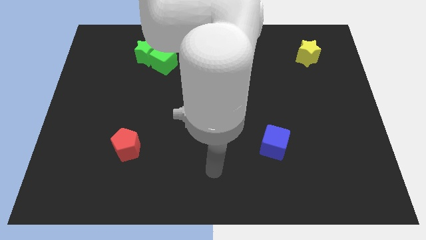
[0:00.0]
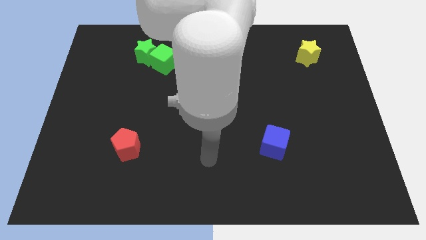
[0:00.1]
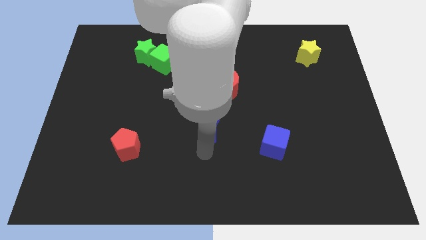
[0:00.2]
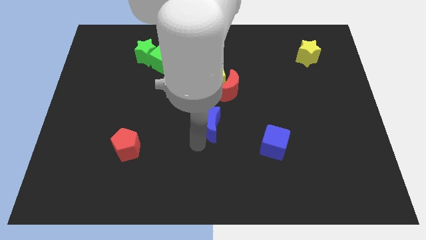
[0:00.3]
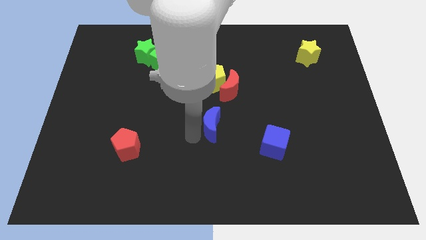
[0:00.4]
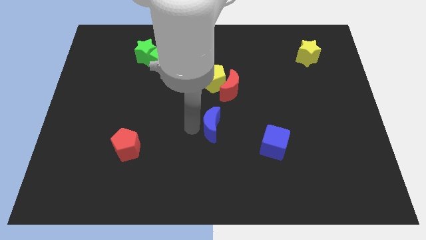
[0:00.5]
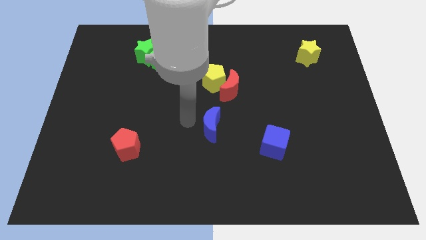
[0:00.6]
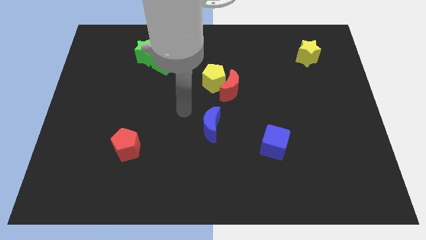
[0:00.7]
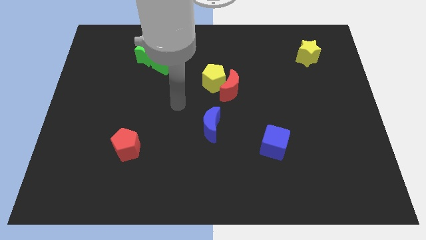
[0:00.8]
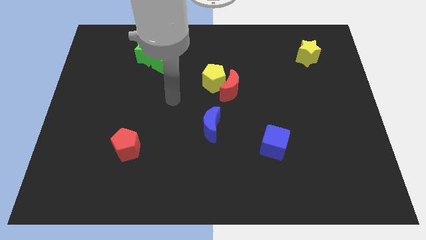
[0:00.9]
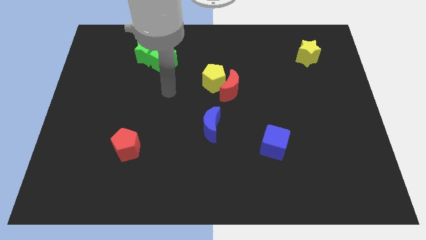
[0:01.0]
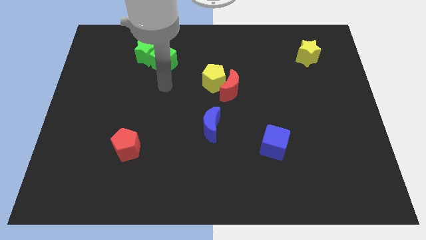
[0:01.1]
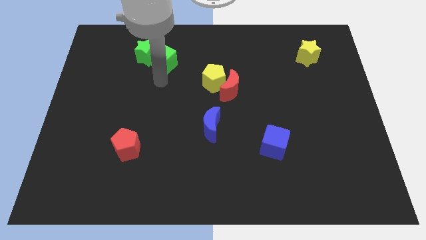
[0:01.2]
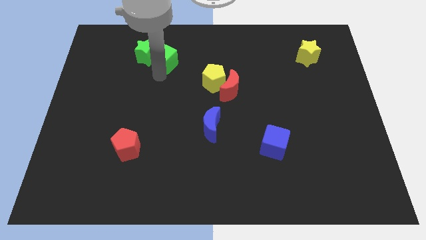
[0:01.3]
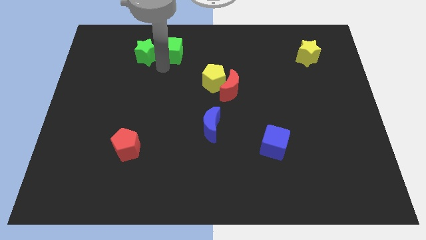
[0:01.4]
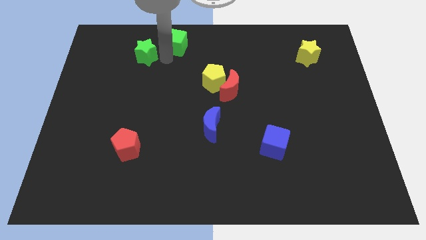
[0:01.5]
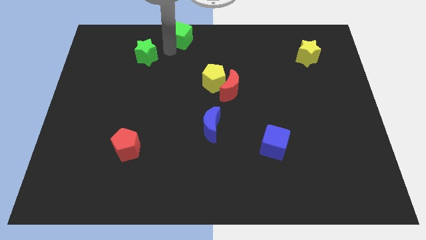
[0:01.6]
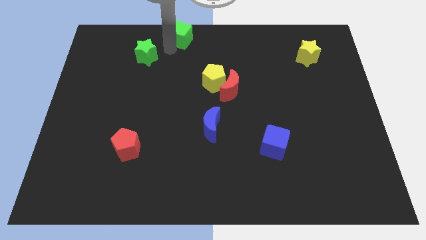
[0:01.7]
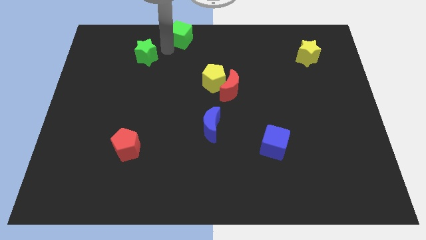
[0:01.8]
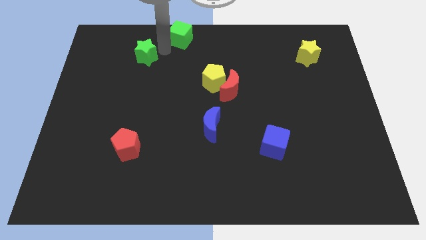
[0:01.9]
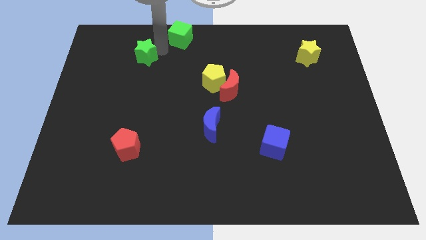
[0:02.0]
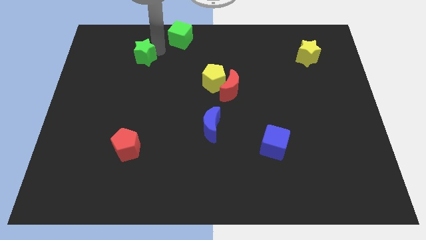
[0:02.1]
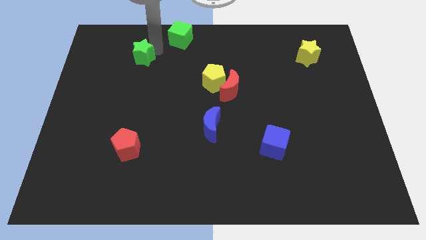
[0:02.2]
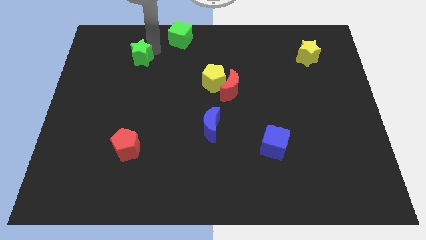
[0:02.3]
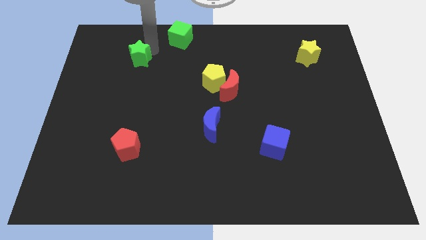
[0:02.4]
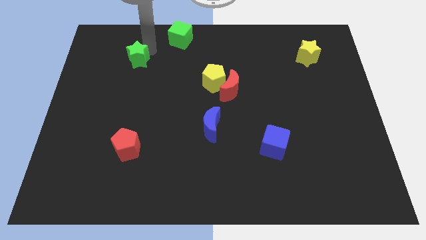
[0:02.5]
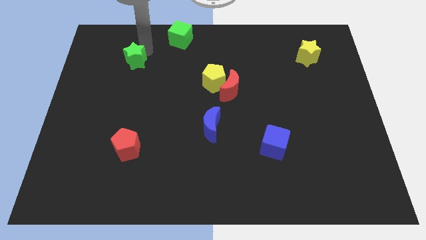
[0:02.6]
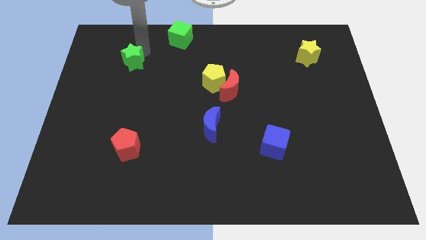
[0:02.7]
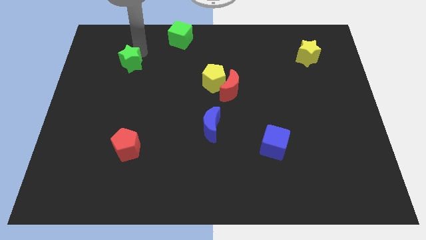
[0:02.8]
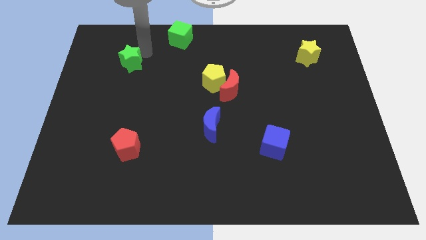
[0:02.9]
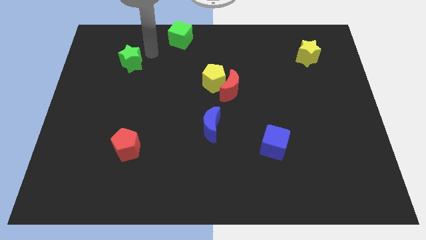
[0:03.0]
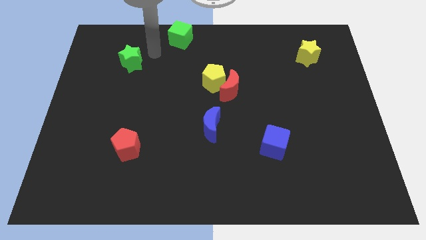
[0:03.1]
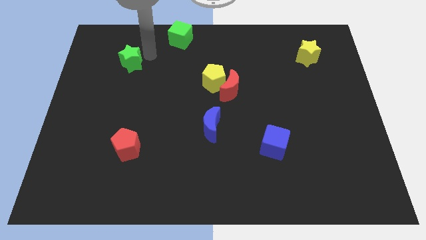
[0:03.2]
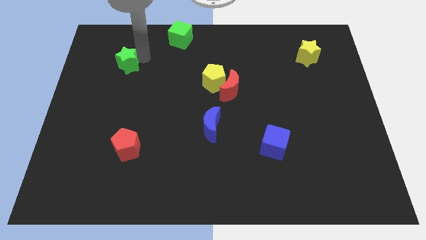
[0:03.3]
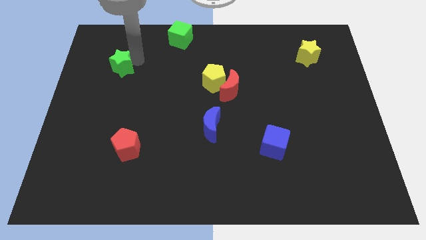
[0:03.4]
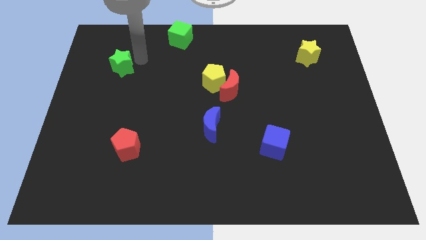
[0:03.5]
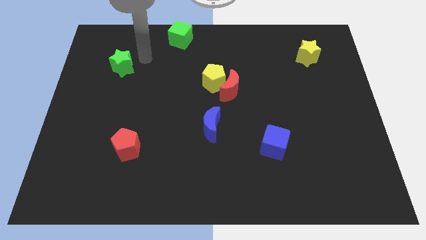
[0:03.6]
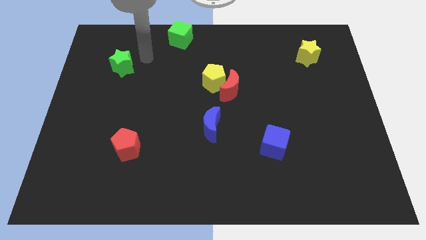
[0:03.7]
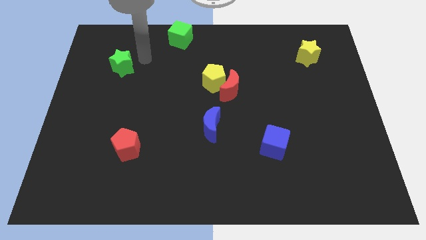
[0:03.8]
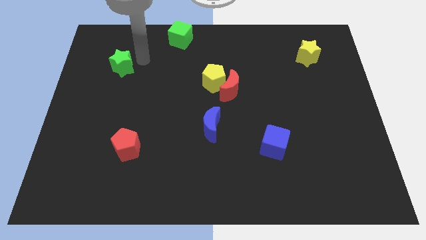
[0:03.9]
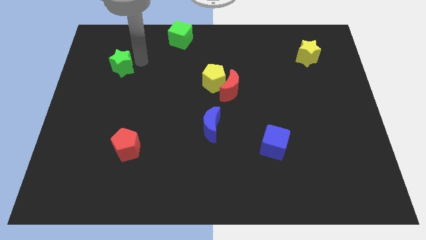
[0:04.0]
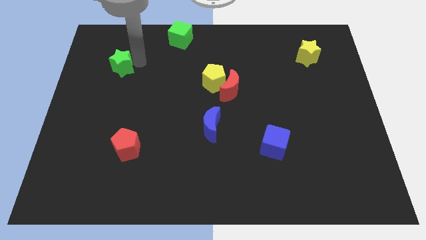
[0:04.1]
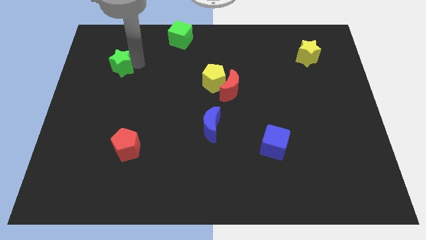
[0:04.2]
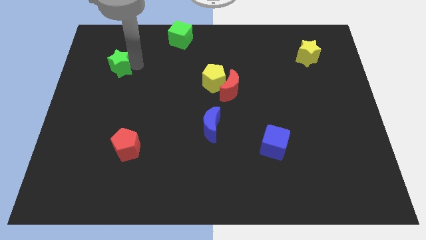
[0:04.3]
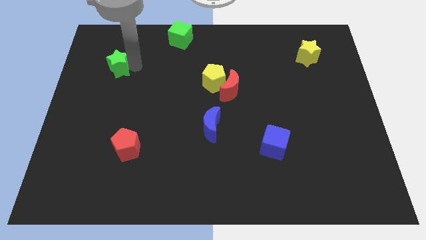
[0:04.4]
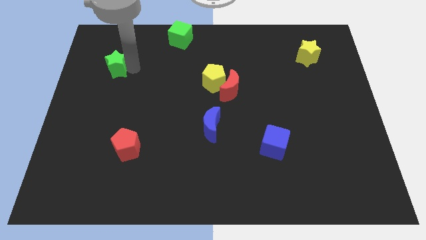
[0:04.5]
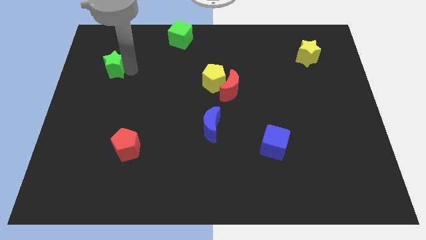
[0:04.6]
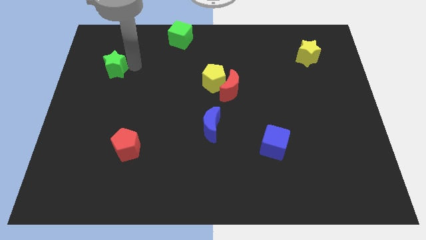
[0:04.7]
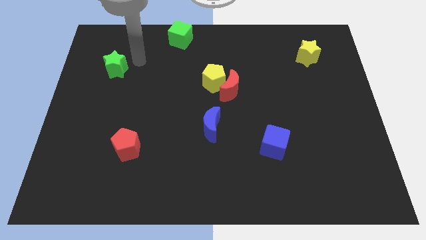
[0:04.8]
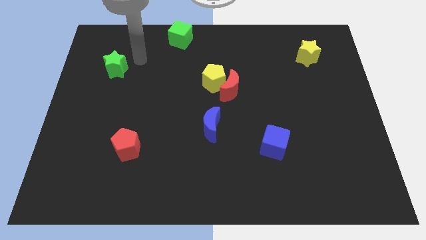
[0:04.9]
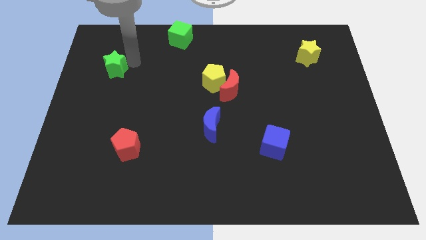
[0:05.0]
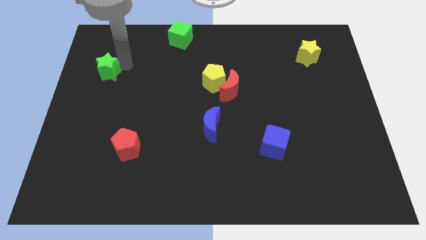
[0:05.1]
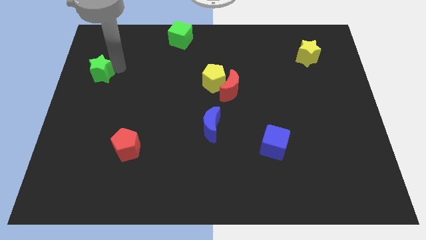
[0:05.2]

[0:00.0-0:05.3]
slide the green star to the left side of the board

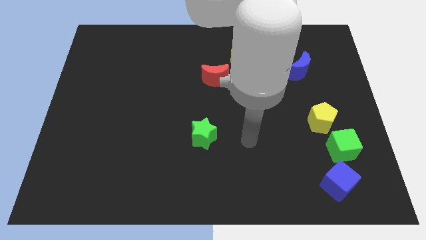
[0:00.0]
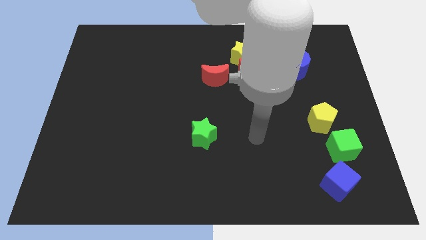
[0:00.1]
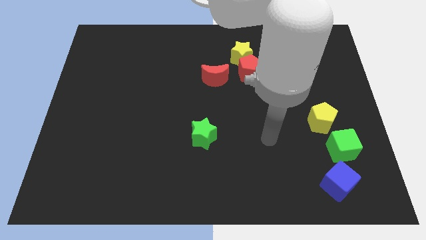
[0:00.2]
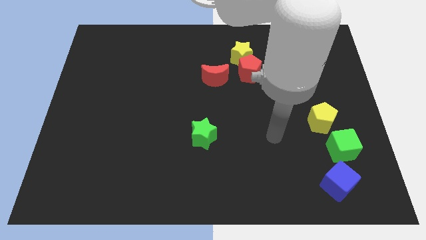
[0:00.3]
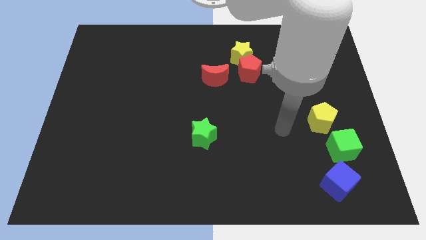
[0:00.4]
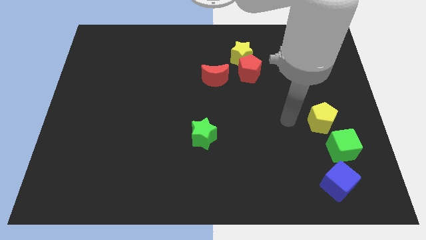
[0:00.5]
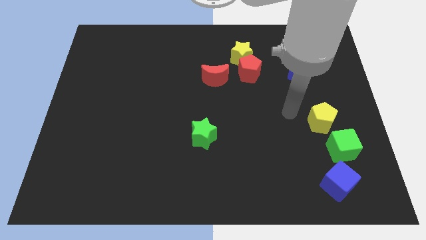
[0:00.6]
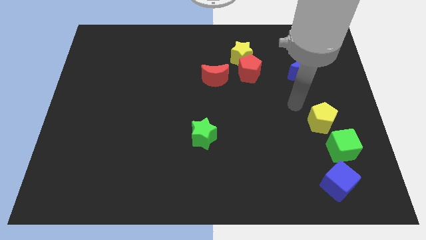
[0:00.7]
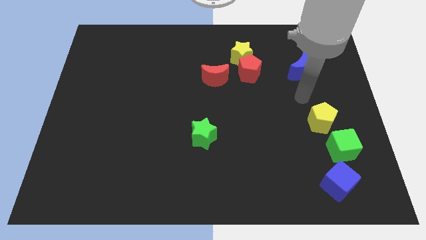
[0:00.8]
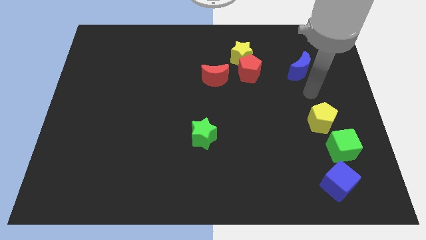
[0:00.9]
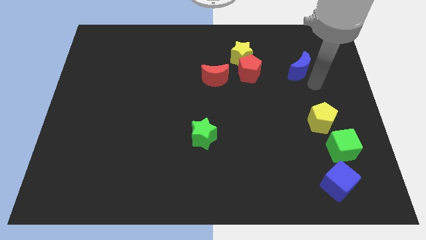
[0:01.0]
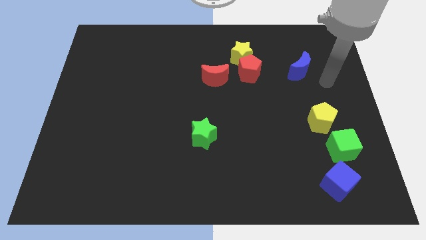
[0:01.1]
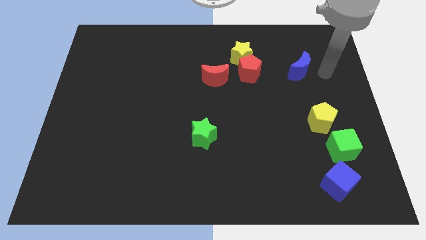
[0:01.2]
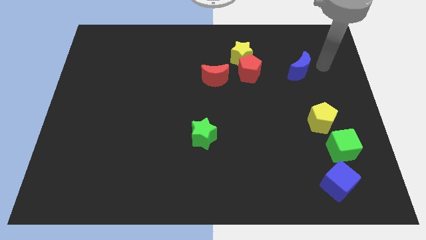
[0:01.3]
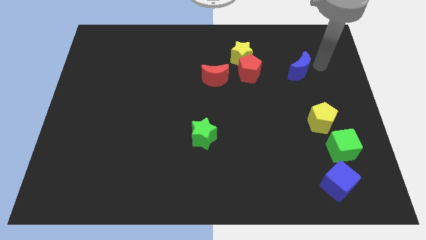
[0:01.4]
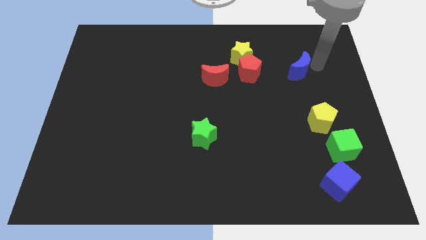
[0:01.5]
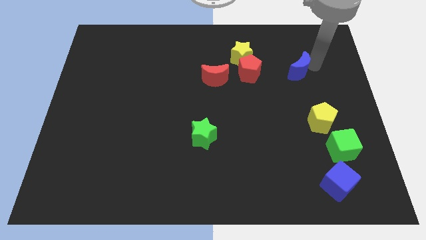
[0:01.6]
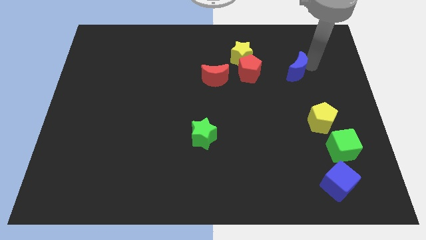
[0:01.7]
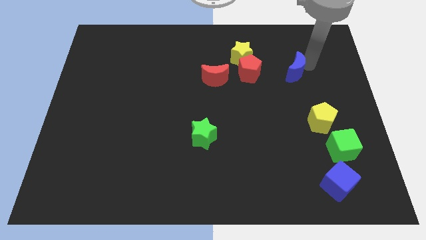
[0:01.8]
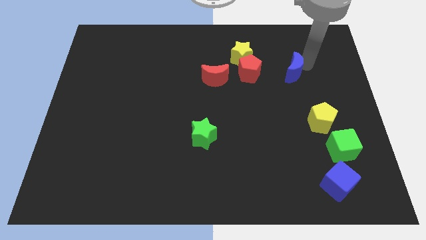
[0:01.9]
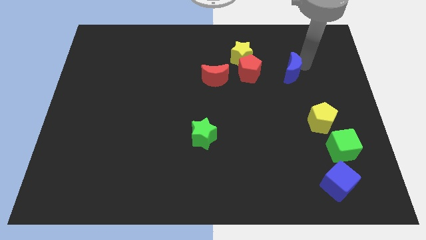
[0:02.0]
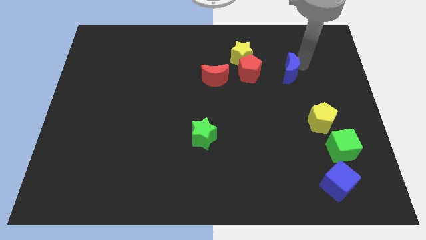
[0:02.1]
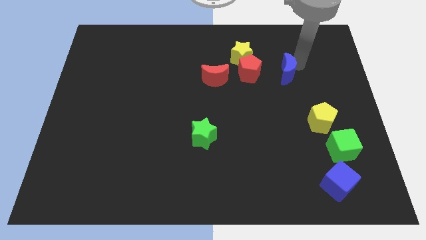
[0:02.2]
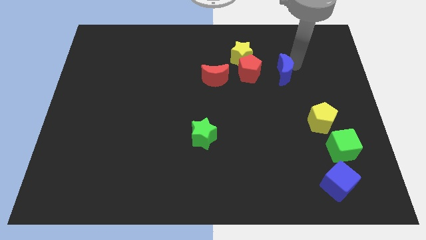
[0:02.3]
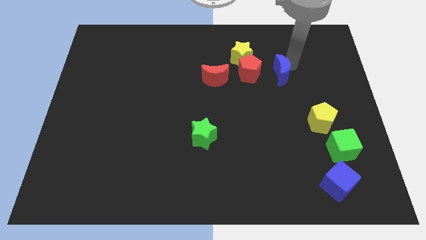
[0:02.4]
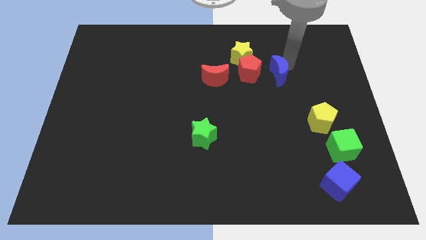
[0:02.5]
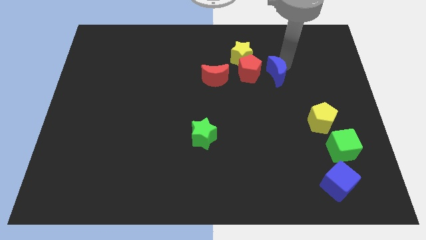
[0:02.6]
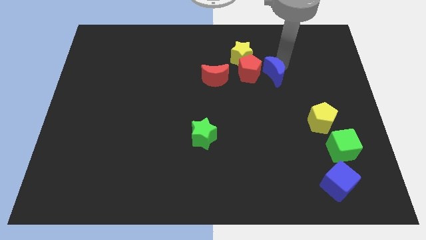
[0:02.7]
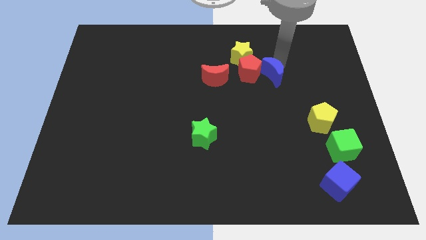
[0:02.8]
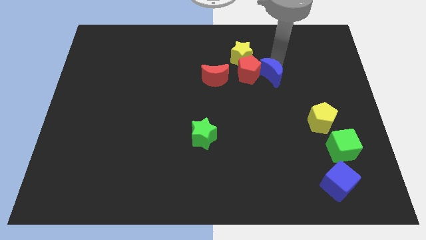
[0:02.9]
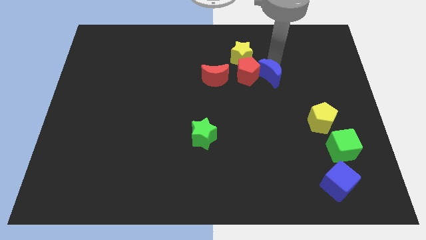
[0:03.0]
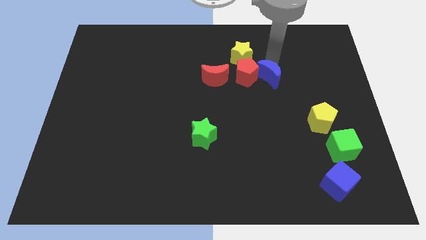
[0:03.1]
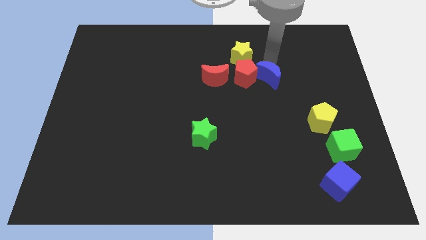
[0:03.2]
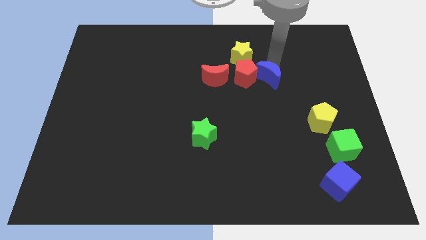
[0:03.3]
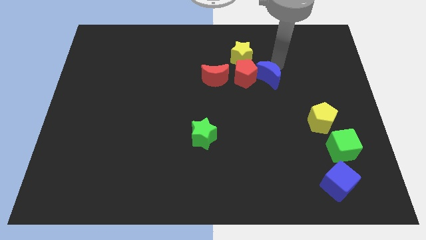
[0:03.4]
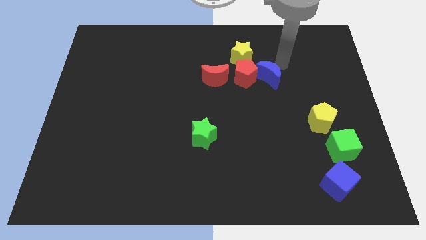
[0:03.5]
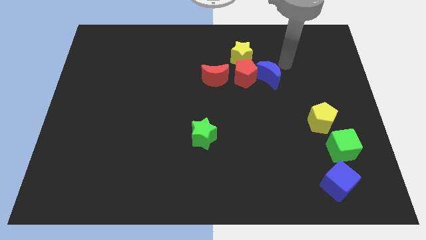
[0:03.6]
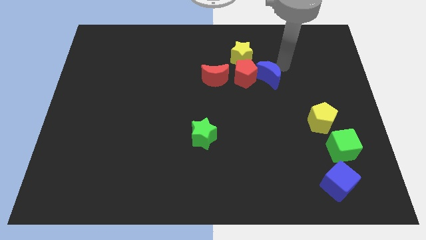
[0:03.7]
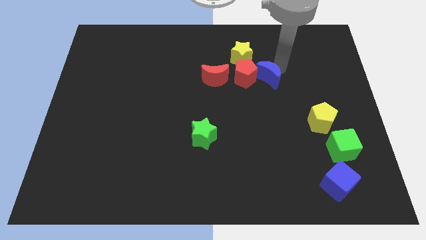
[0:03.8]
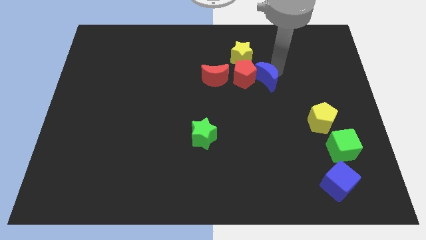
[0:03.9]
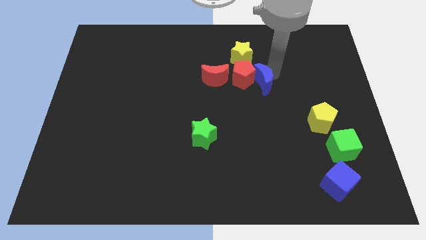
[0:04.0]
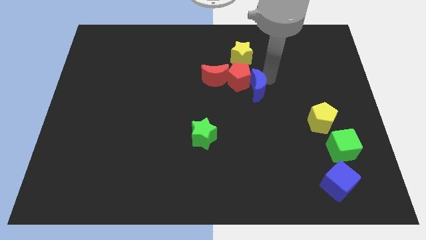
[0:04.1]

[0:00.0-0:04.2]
push the blue moon to the center of the board
